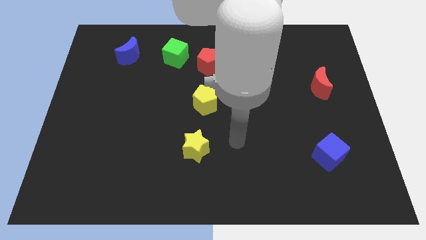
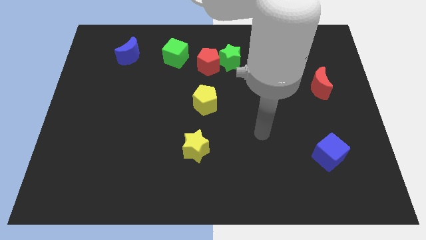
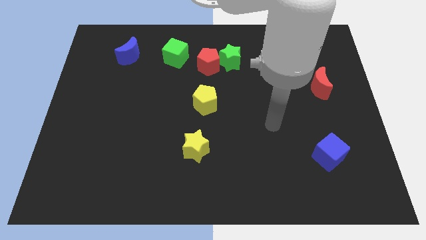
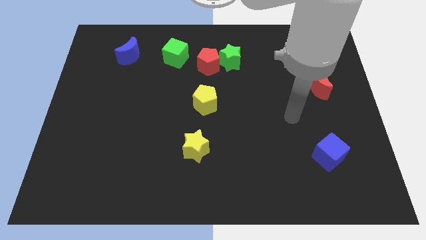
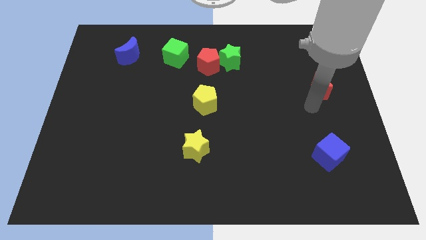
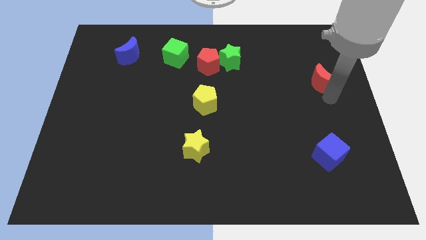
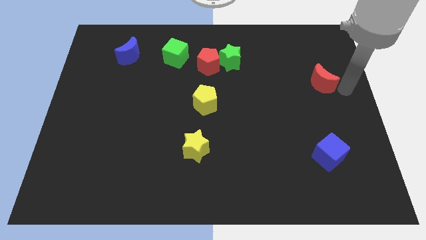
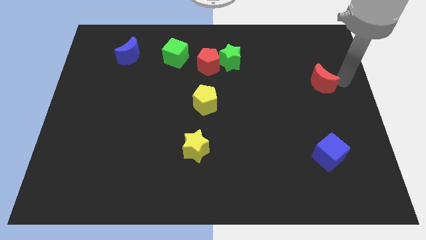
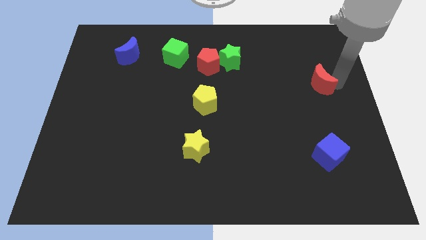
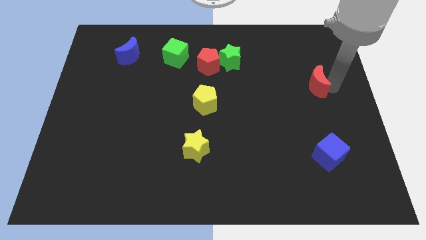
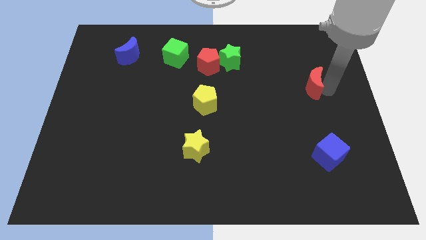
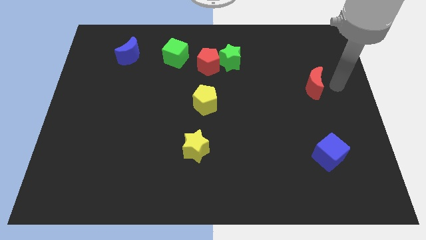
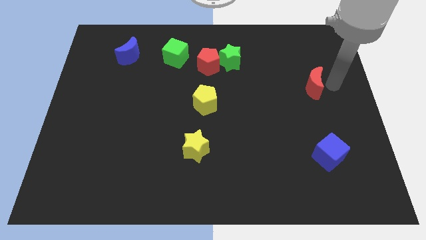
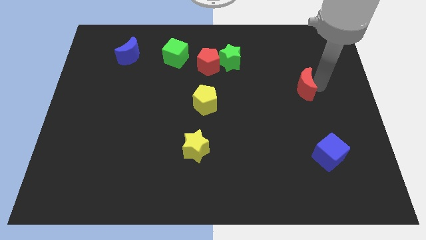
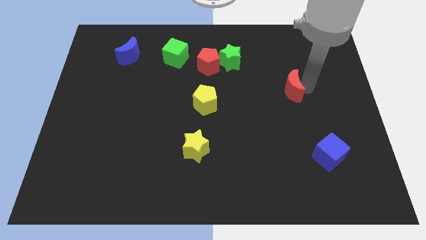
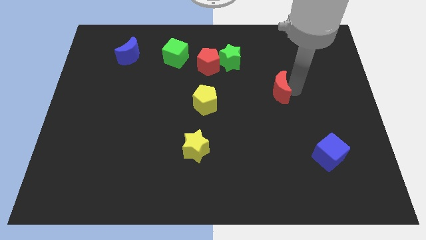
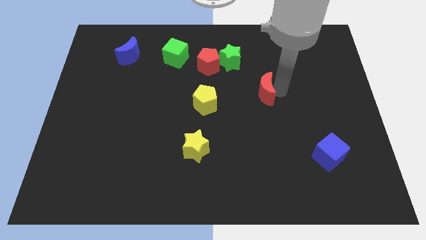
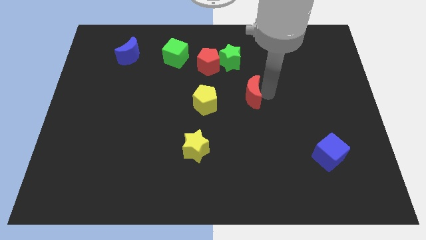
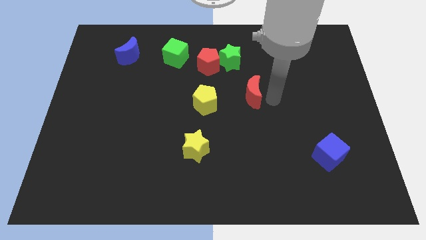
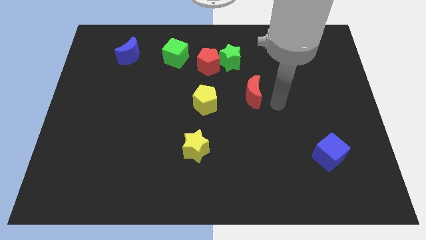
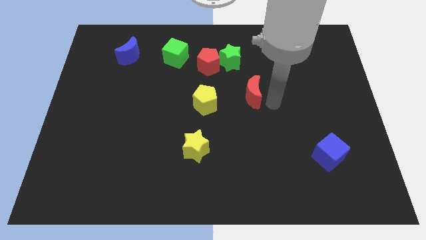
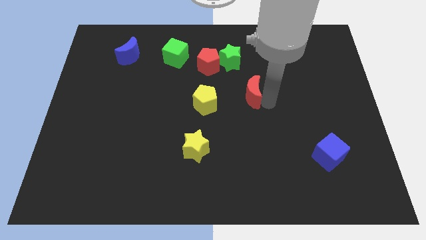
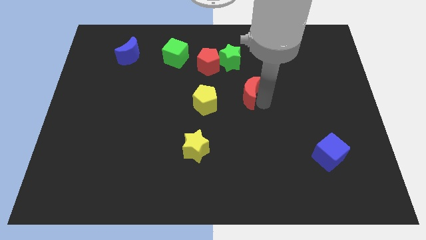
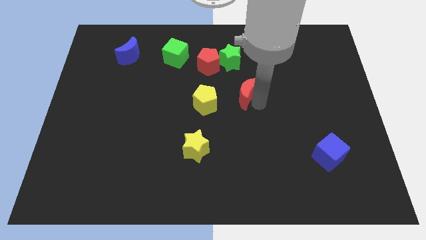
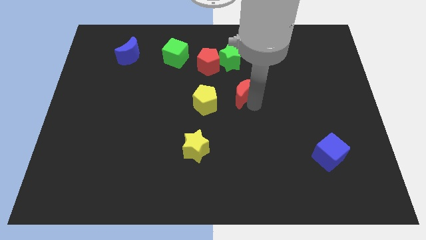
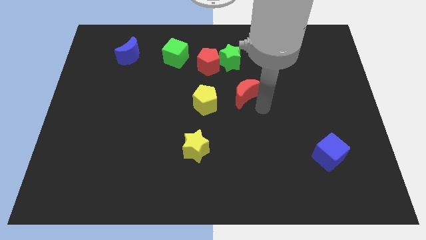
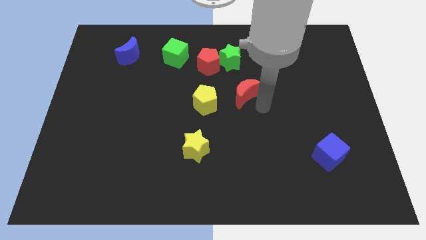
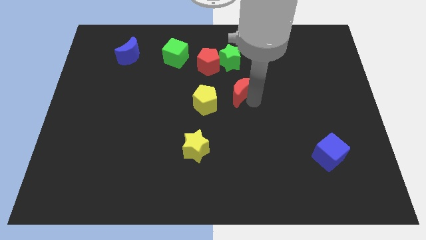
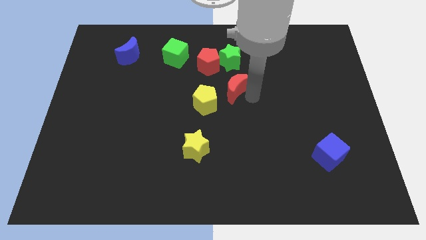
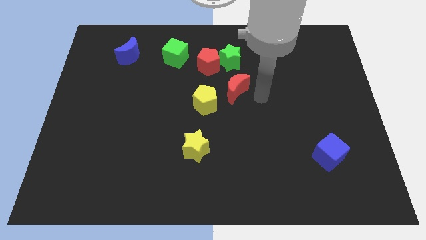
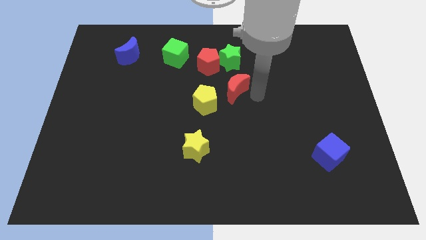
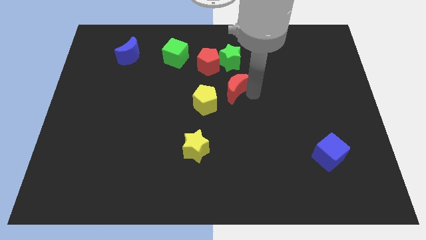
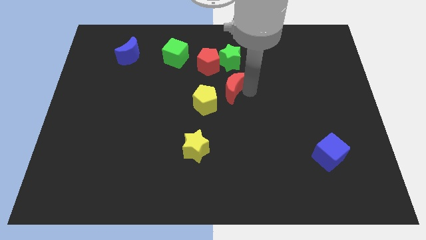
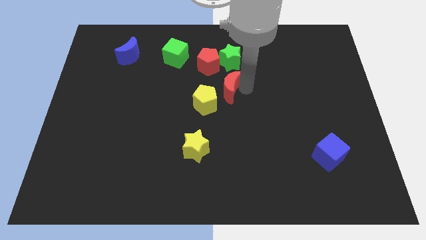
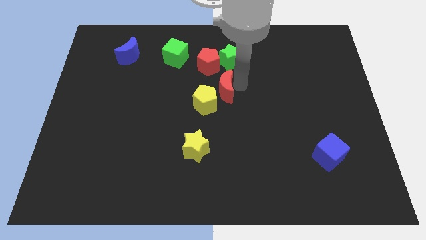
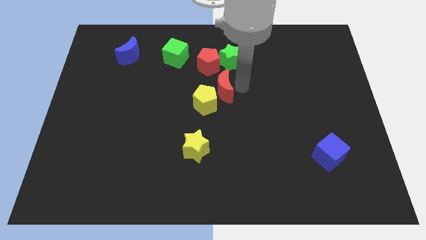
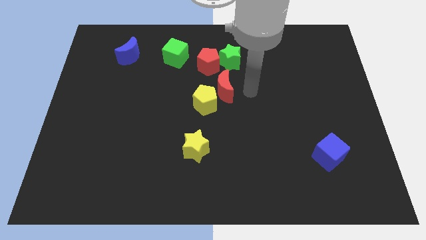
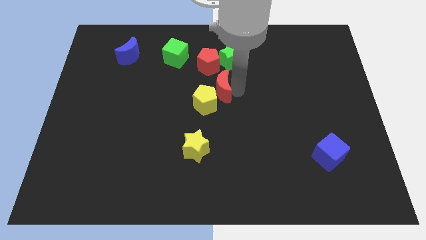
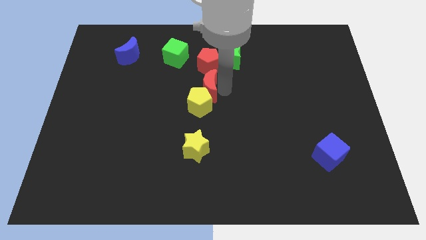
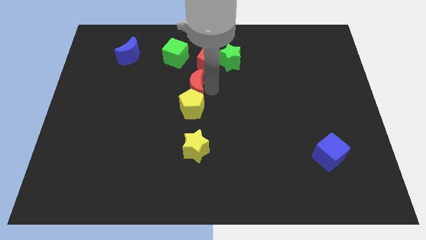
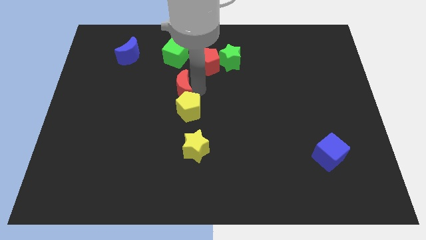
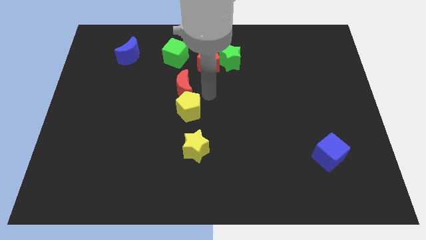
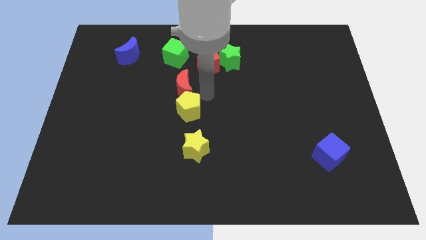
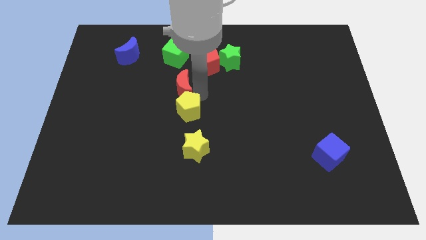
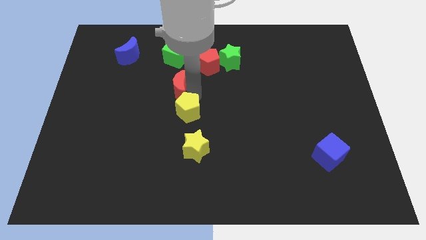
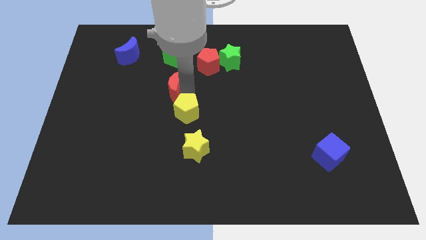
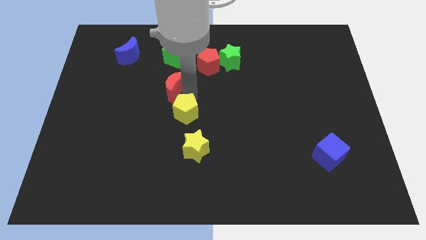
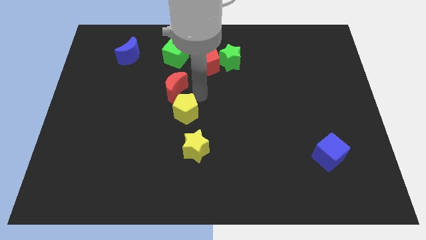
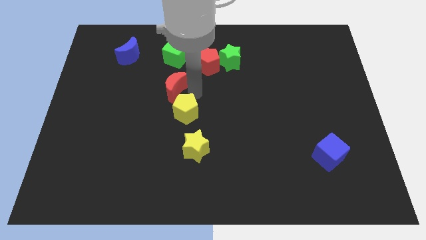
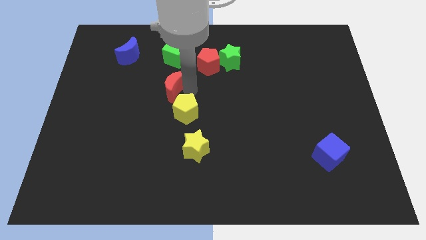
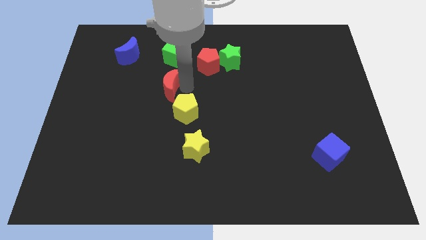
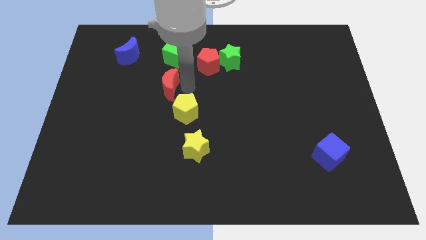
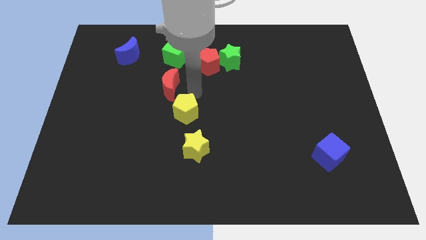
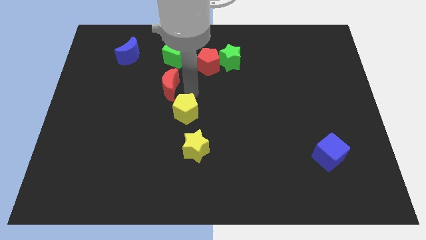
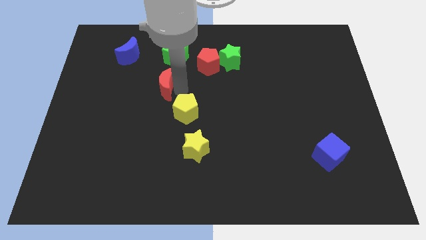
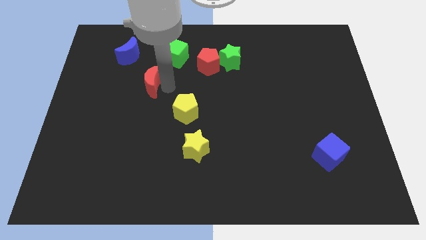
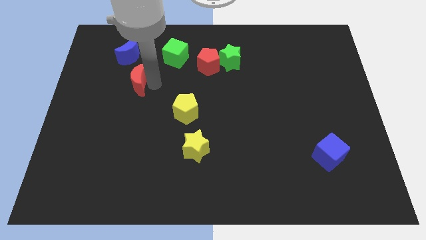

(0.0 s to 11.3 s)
move the red moon to the bottom of the blue moon
